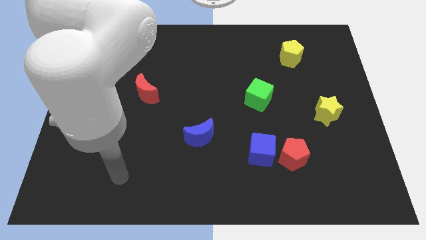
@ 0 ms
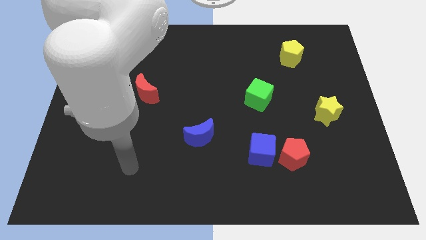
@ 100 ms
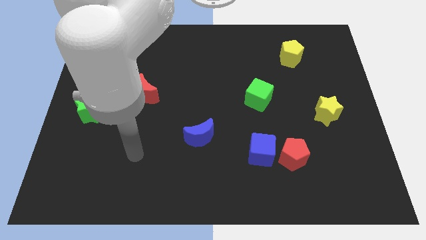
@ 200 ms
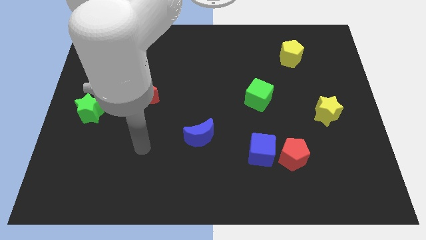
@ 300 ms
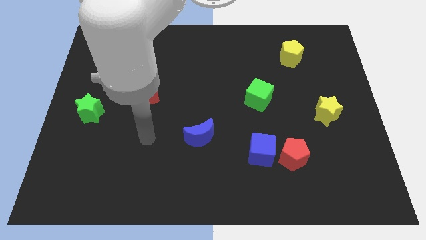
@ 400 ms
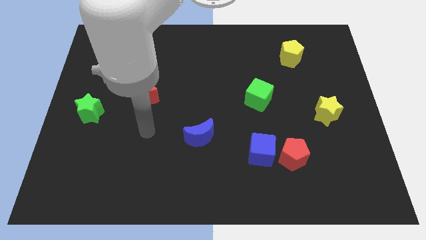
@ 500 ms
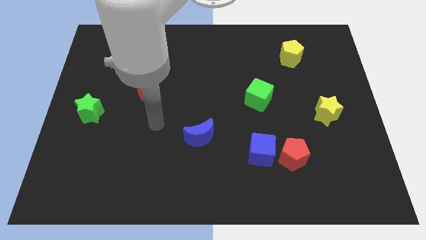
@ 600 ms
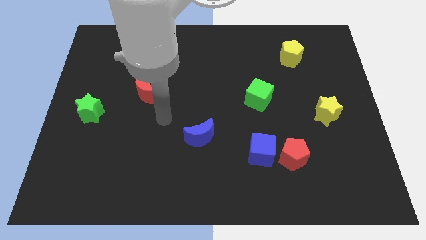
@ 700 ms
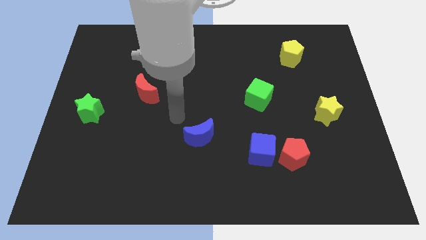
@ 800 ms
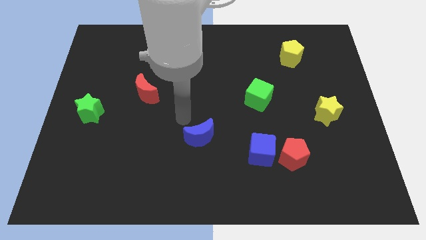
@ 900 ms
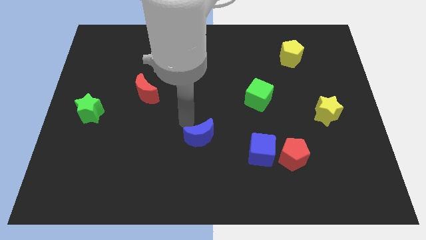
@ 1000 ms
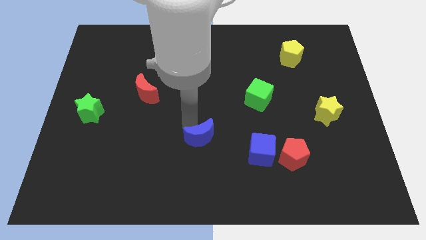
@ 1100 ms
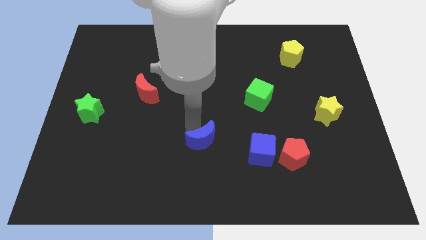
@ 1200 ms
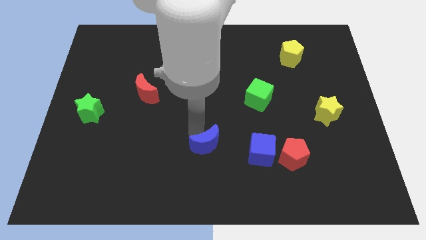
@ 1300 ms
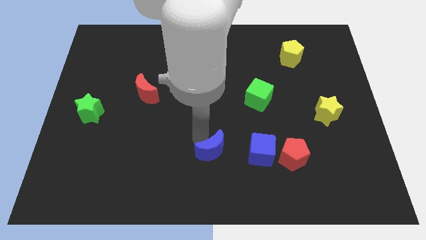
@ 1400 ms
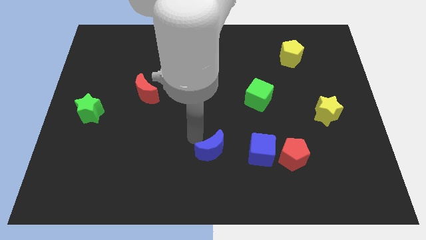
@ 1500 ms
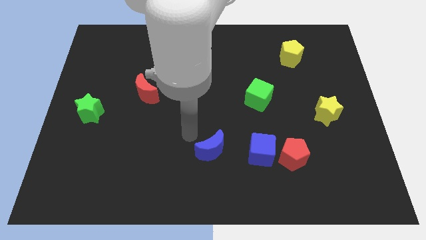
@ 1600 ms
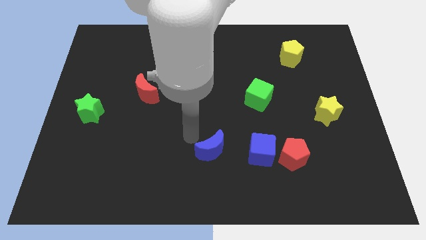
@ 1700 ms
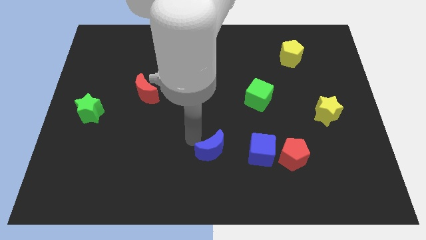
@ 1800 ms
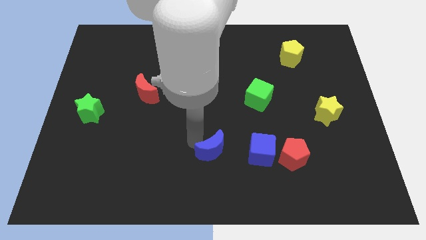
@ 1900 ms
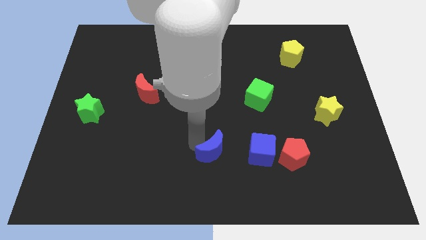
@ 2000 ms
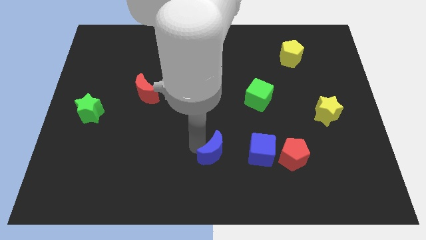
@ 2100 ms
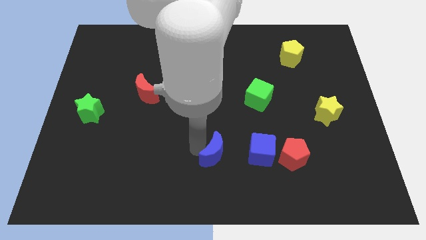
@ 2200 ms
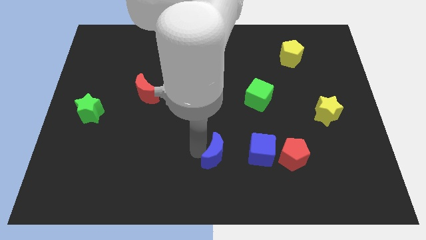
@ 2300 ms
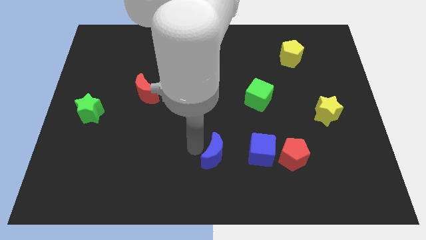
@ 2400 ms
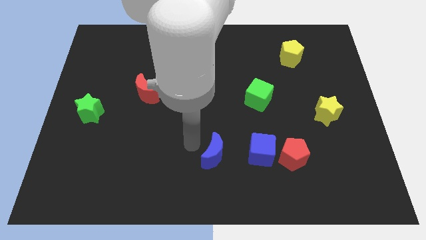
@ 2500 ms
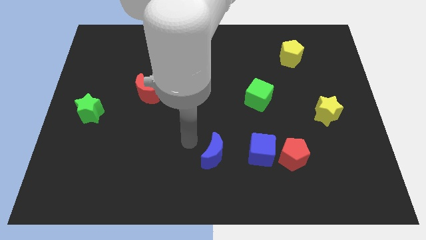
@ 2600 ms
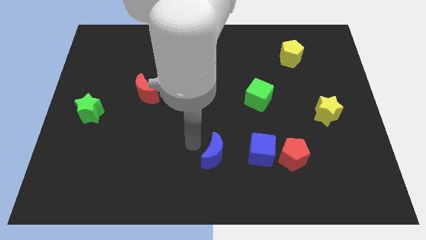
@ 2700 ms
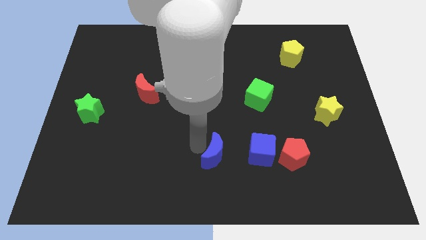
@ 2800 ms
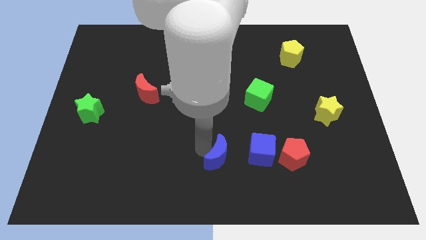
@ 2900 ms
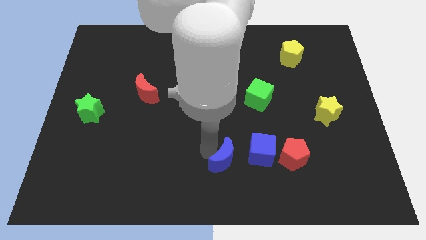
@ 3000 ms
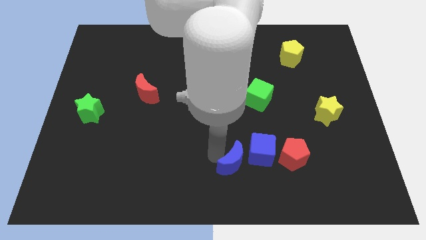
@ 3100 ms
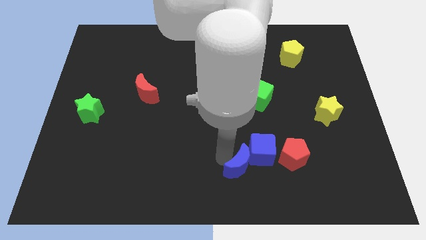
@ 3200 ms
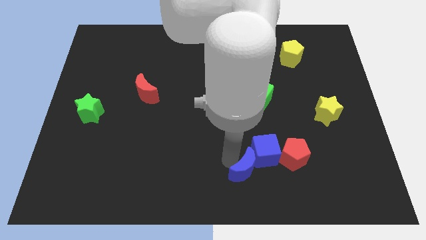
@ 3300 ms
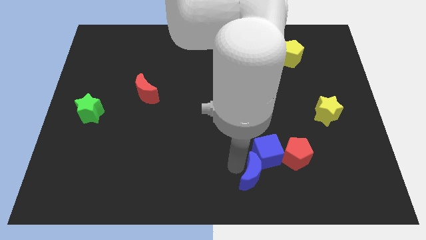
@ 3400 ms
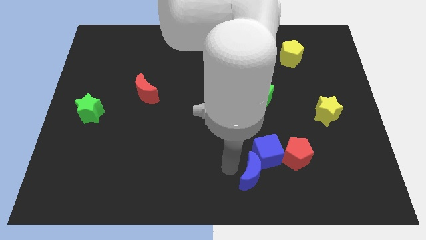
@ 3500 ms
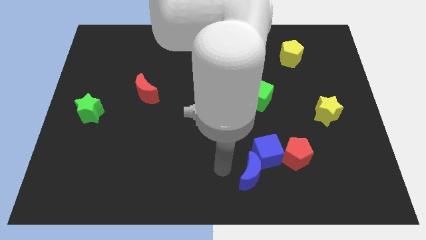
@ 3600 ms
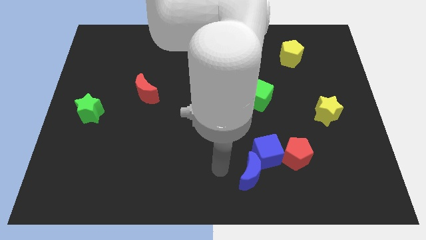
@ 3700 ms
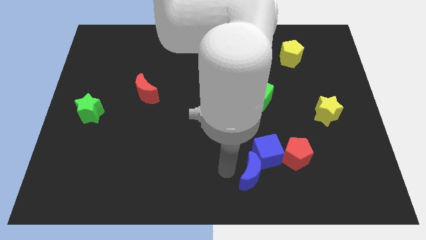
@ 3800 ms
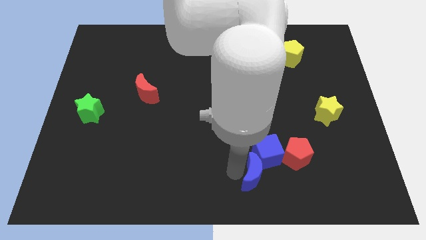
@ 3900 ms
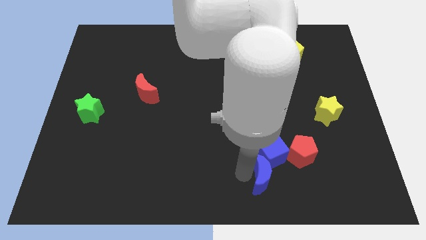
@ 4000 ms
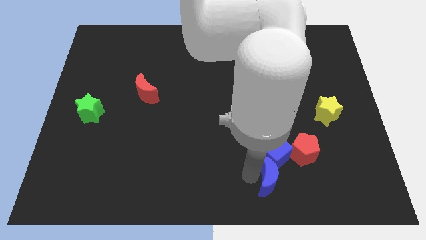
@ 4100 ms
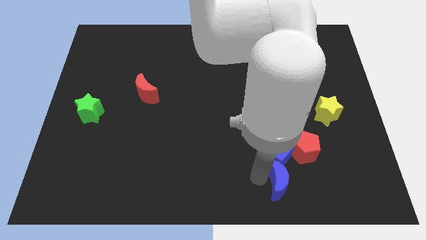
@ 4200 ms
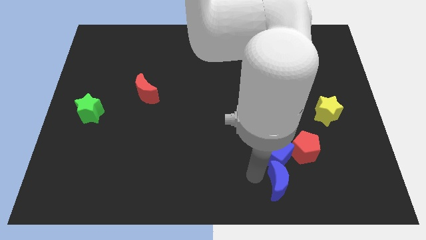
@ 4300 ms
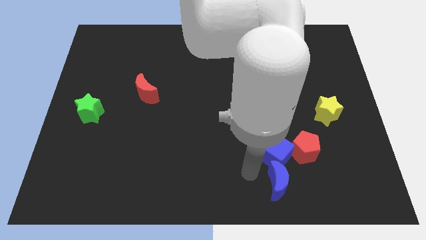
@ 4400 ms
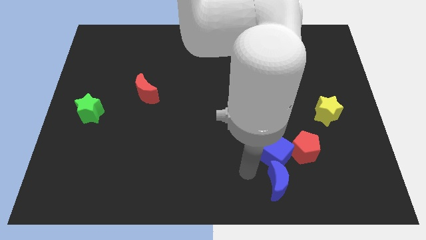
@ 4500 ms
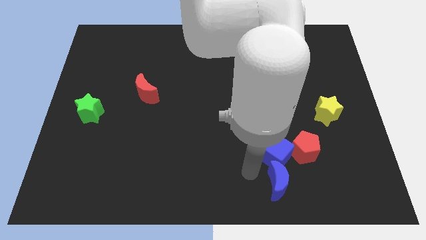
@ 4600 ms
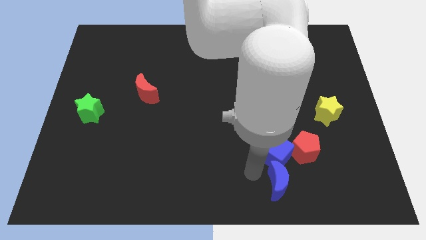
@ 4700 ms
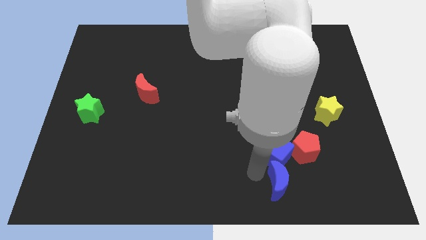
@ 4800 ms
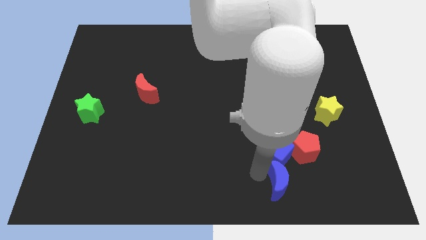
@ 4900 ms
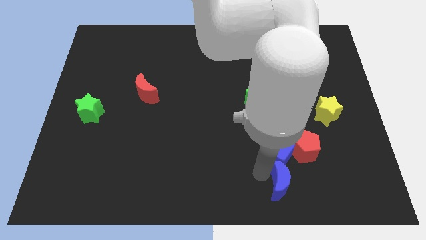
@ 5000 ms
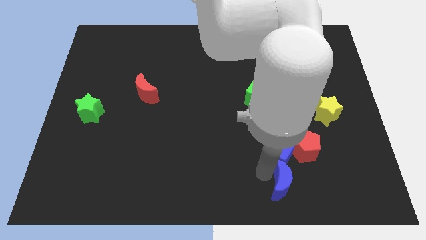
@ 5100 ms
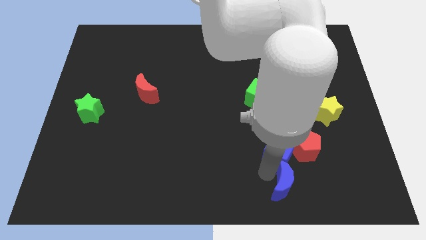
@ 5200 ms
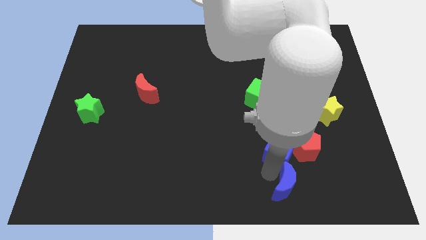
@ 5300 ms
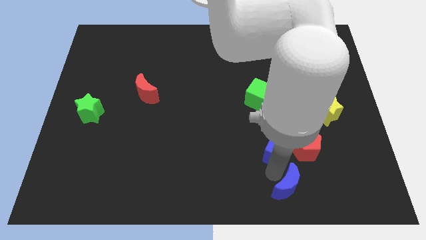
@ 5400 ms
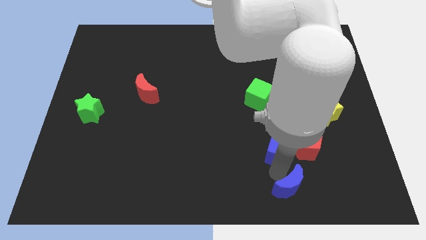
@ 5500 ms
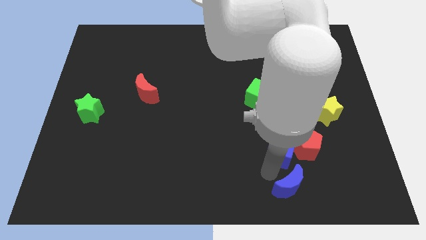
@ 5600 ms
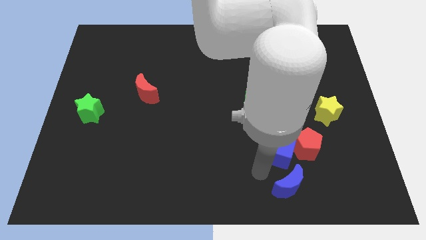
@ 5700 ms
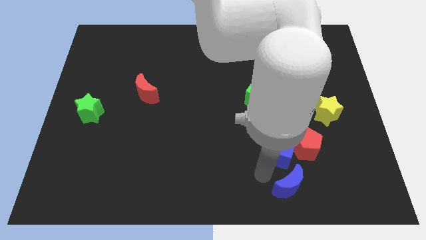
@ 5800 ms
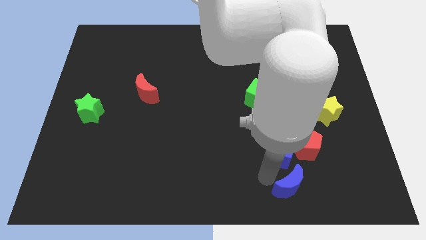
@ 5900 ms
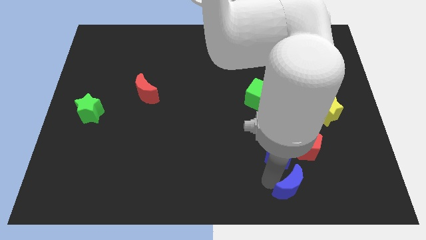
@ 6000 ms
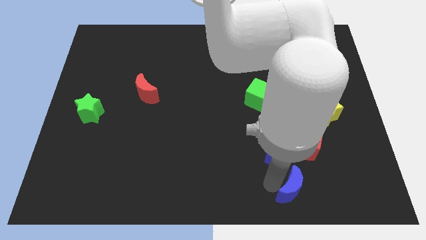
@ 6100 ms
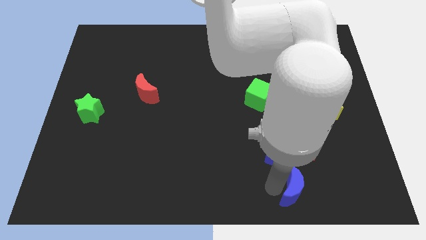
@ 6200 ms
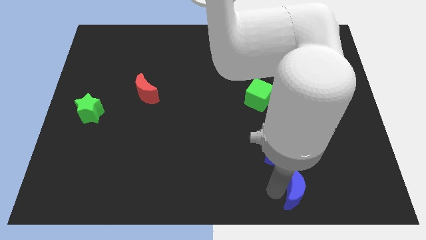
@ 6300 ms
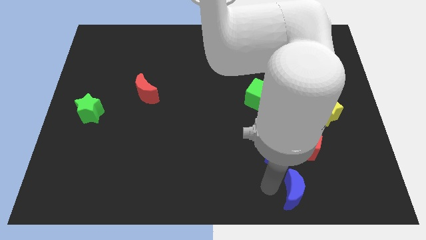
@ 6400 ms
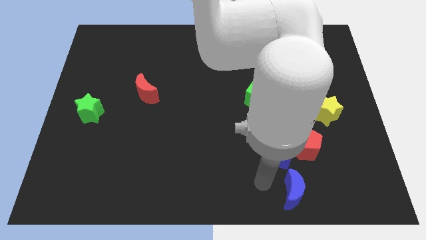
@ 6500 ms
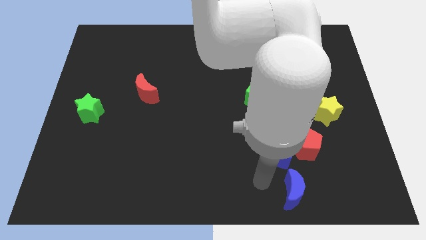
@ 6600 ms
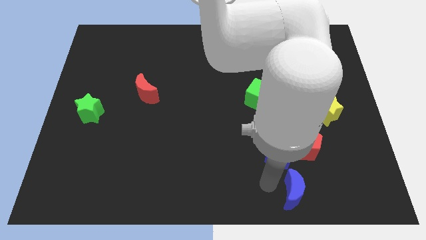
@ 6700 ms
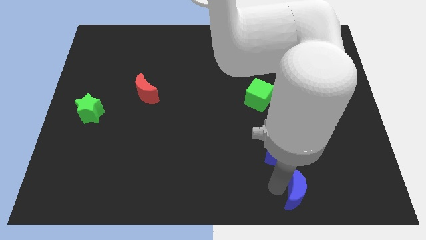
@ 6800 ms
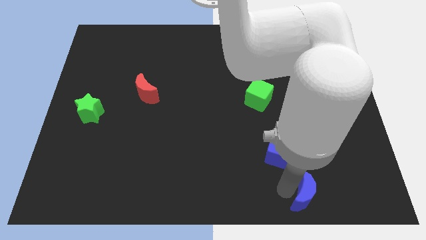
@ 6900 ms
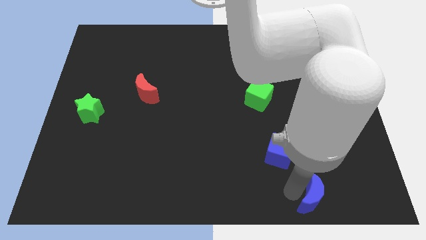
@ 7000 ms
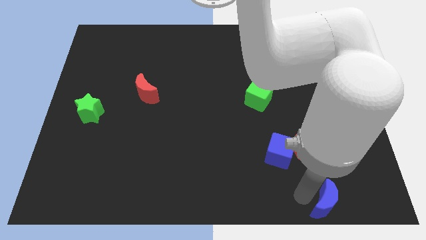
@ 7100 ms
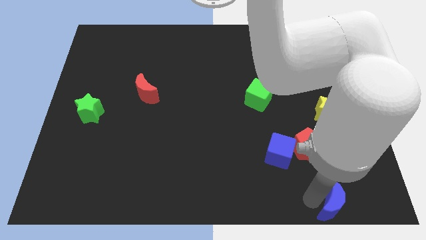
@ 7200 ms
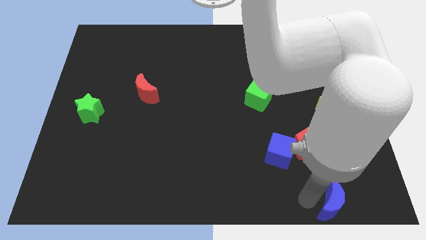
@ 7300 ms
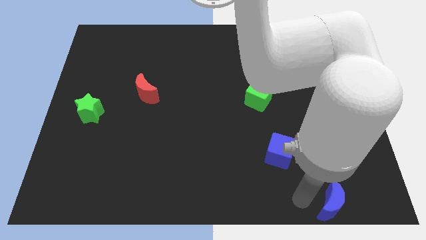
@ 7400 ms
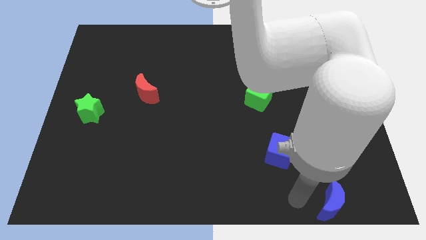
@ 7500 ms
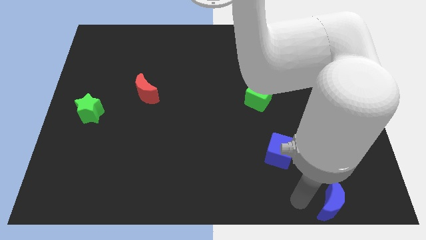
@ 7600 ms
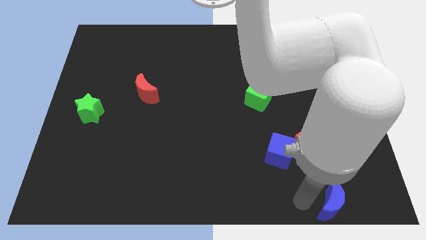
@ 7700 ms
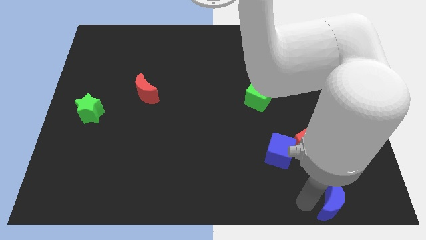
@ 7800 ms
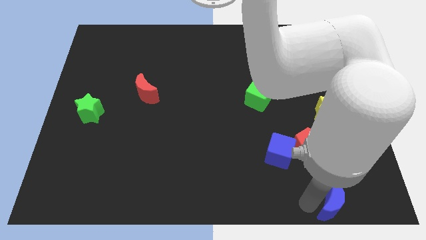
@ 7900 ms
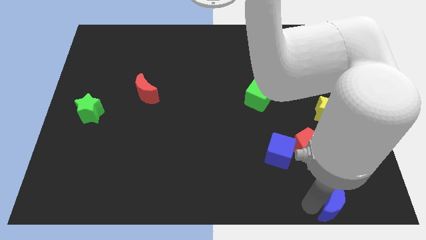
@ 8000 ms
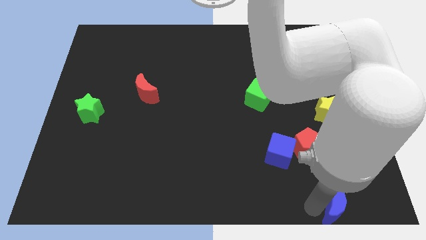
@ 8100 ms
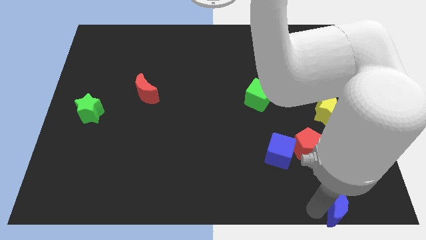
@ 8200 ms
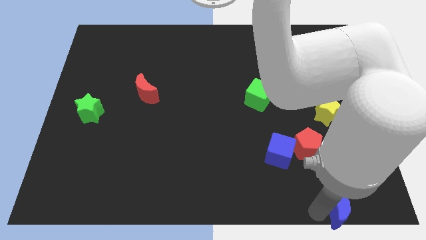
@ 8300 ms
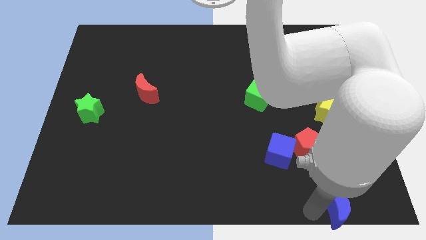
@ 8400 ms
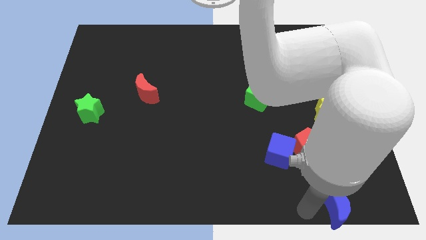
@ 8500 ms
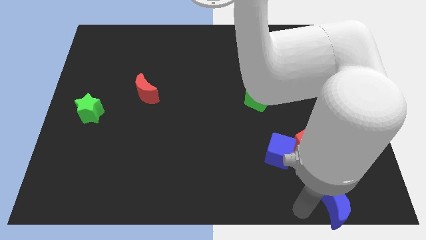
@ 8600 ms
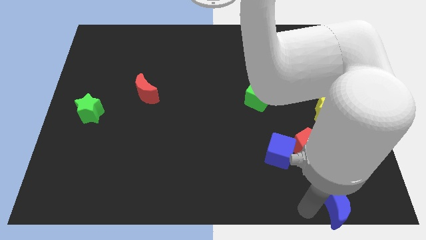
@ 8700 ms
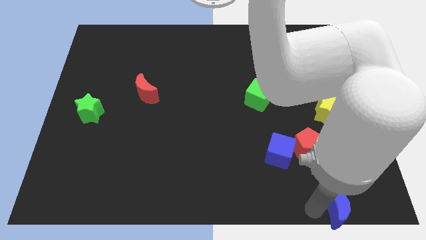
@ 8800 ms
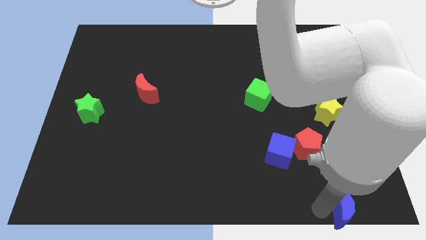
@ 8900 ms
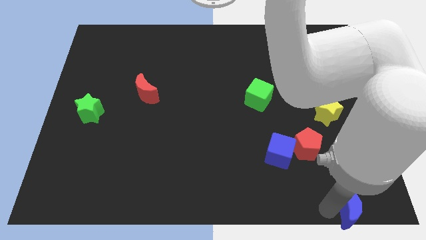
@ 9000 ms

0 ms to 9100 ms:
move the blue moon to the bottom right of the board
